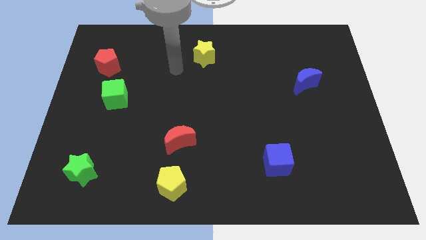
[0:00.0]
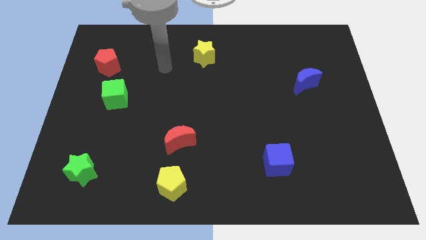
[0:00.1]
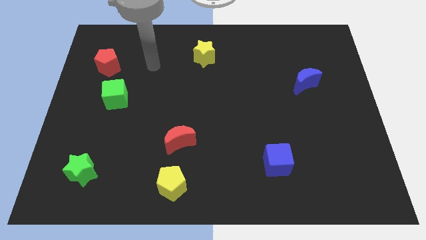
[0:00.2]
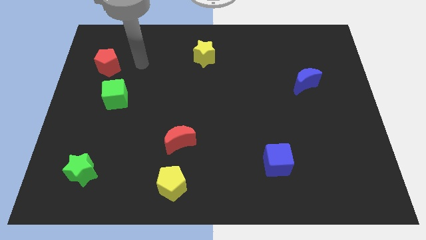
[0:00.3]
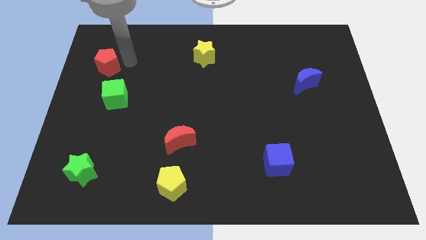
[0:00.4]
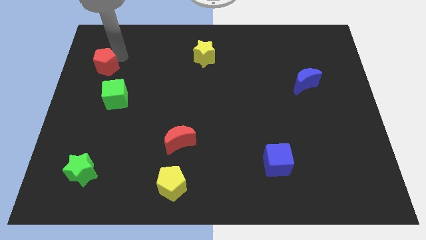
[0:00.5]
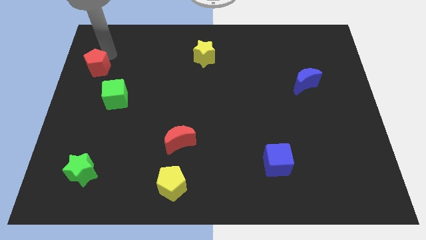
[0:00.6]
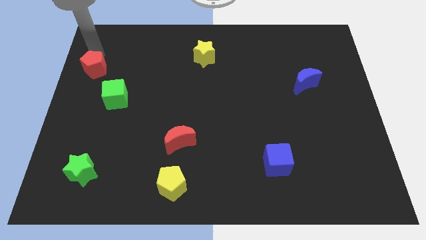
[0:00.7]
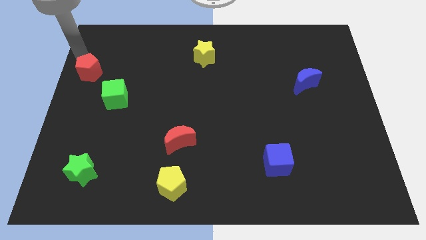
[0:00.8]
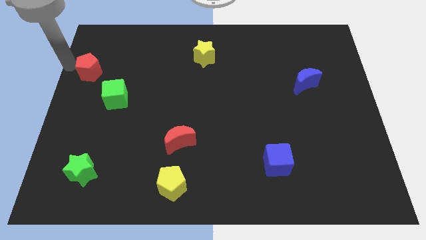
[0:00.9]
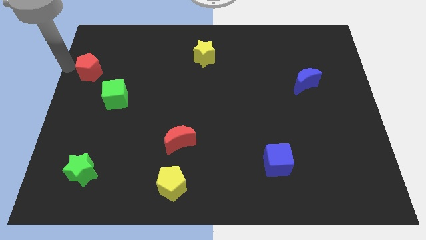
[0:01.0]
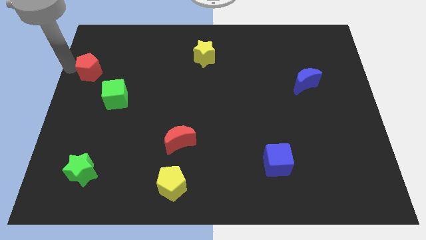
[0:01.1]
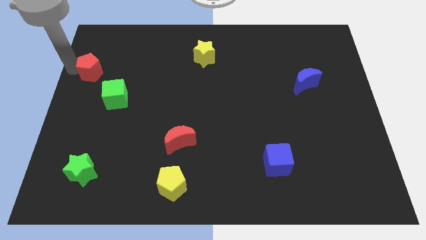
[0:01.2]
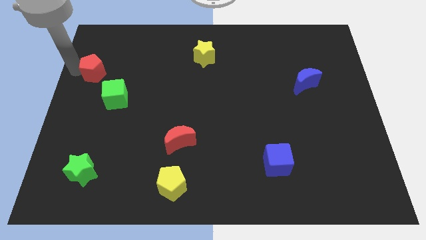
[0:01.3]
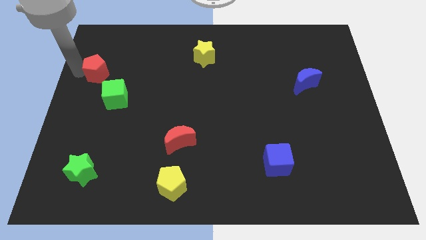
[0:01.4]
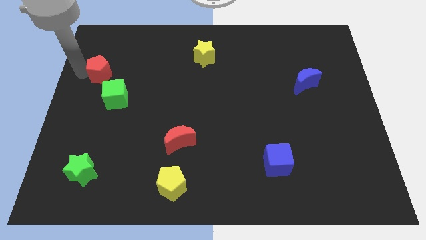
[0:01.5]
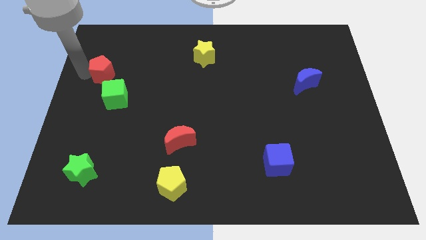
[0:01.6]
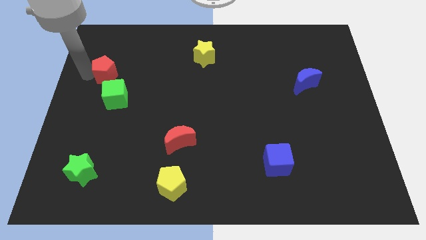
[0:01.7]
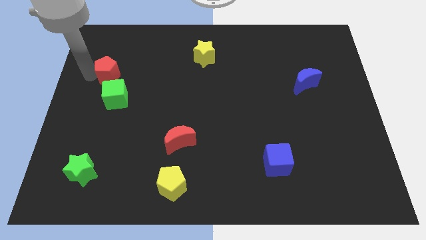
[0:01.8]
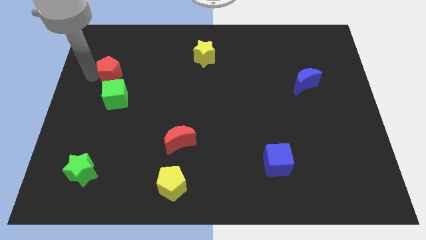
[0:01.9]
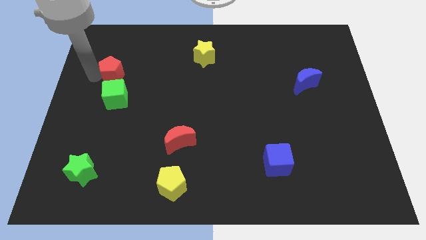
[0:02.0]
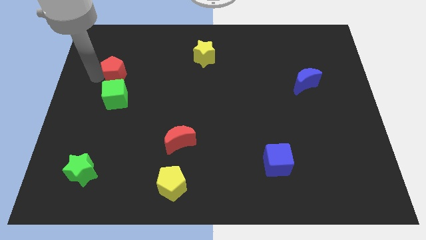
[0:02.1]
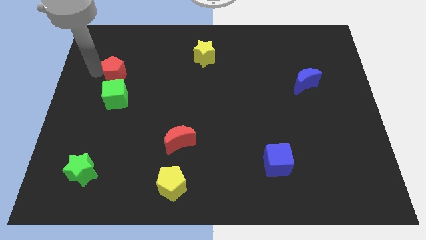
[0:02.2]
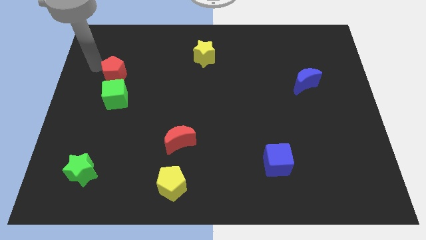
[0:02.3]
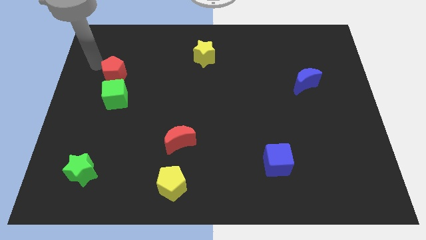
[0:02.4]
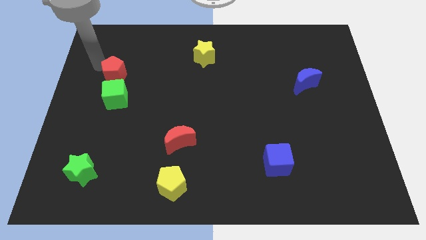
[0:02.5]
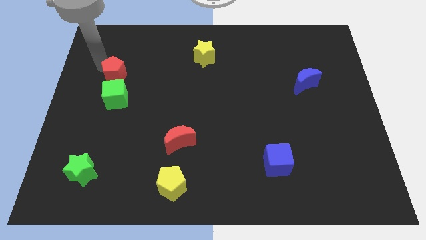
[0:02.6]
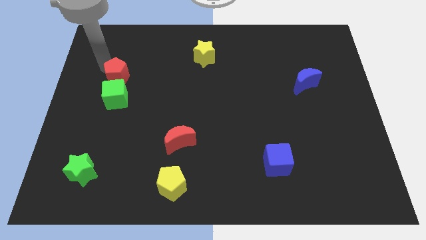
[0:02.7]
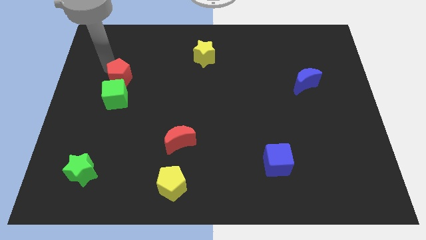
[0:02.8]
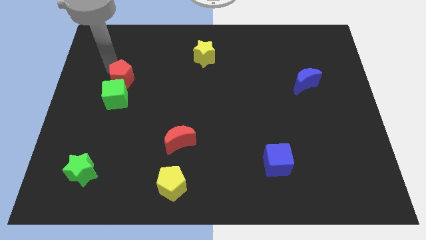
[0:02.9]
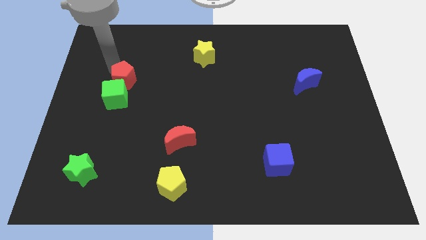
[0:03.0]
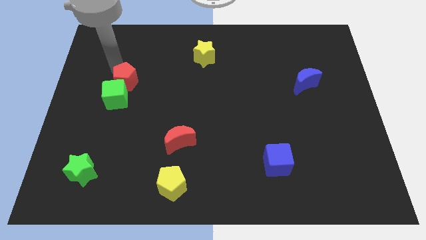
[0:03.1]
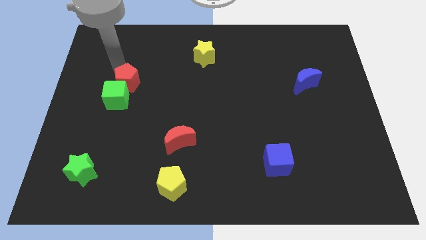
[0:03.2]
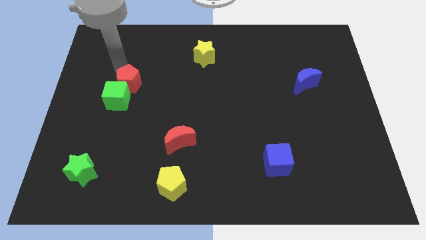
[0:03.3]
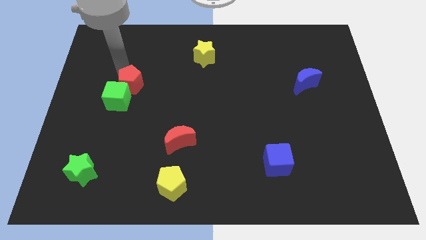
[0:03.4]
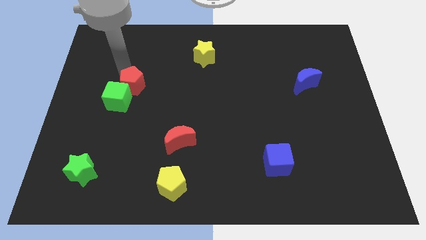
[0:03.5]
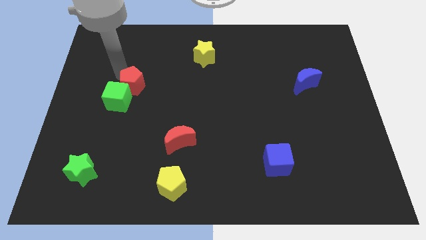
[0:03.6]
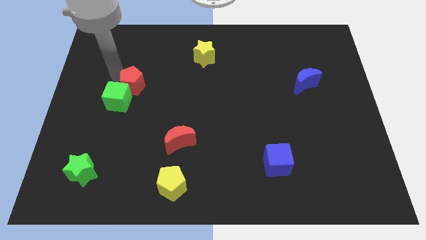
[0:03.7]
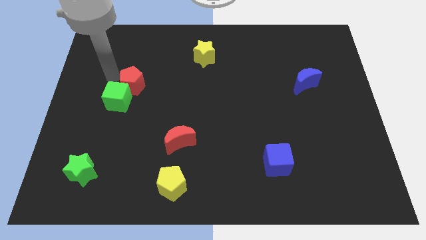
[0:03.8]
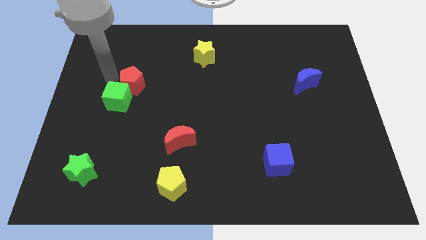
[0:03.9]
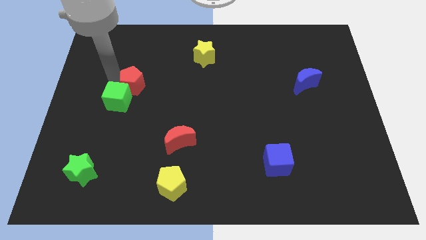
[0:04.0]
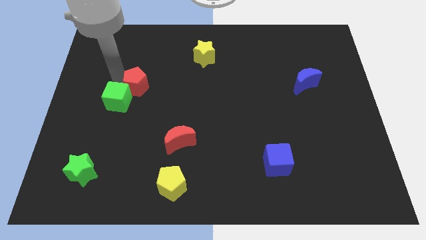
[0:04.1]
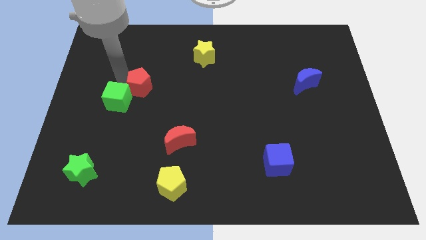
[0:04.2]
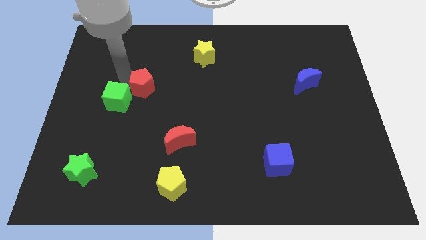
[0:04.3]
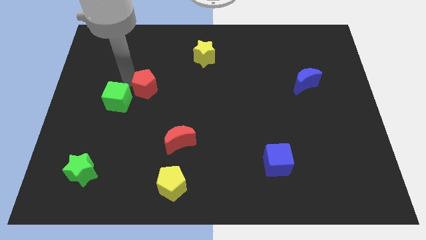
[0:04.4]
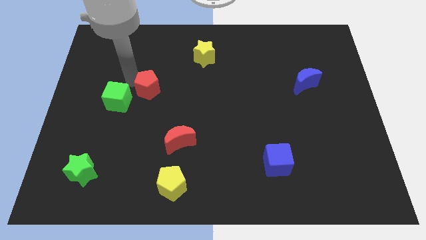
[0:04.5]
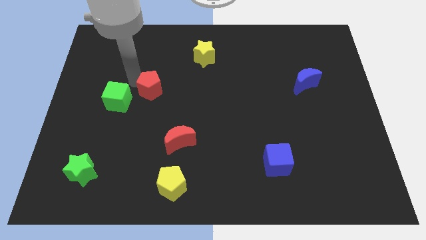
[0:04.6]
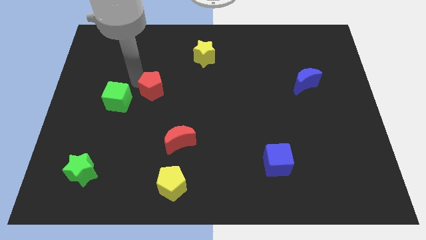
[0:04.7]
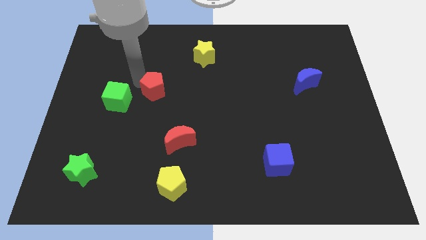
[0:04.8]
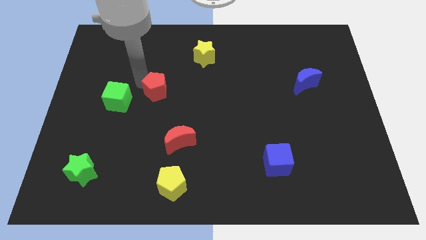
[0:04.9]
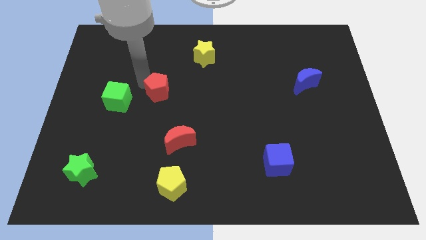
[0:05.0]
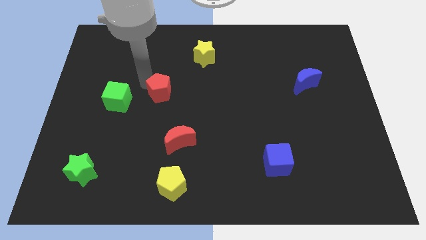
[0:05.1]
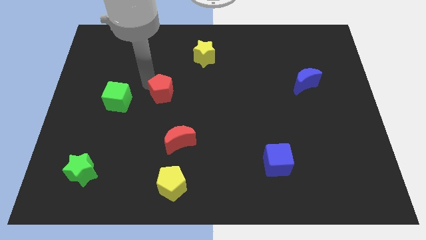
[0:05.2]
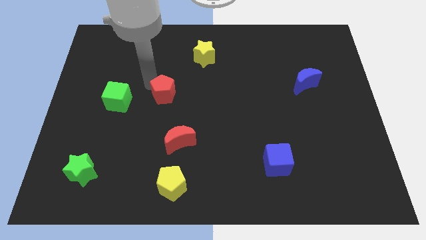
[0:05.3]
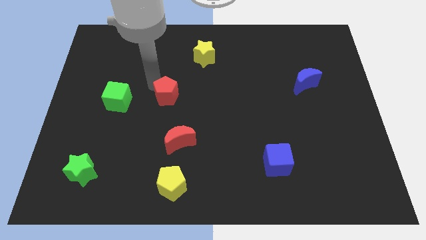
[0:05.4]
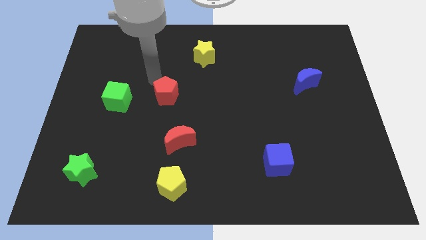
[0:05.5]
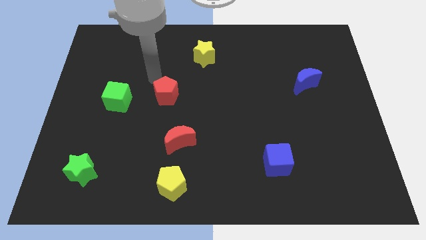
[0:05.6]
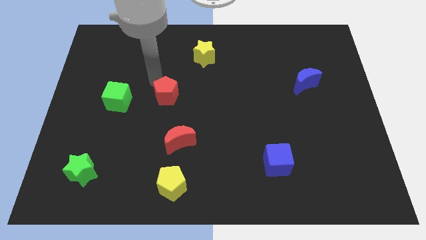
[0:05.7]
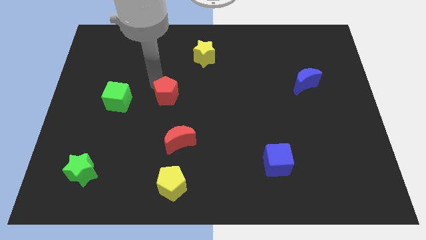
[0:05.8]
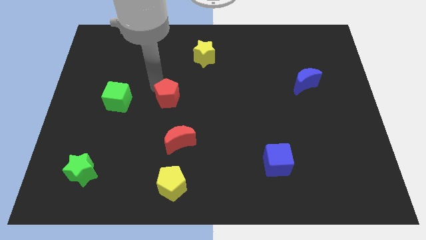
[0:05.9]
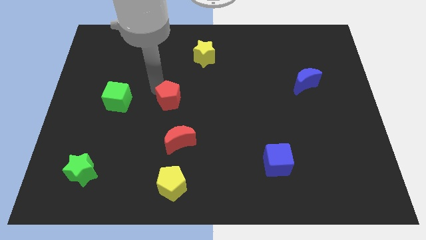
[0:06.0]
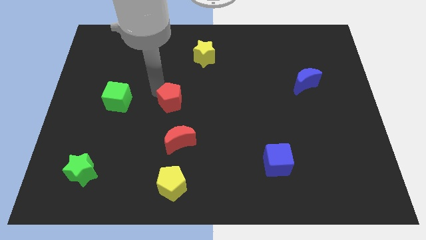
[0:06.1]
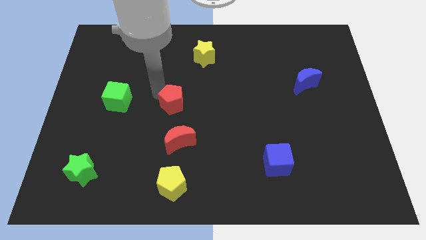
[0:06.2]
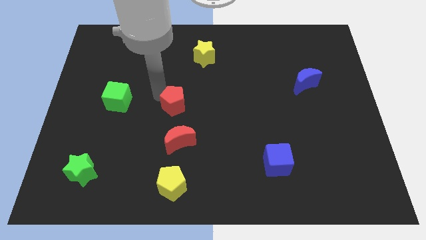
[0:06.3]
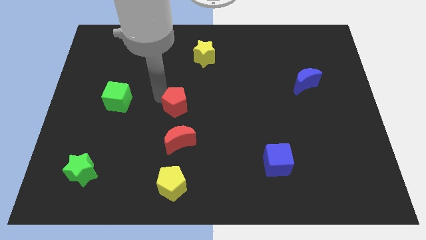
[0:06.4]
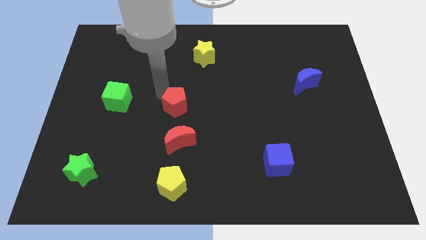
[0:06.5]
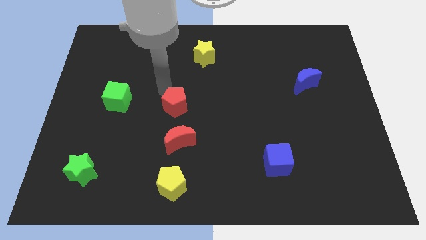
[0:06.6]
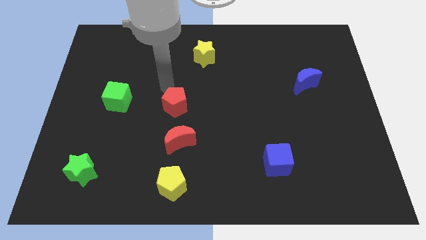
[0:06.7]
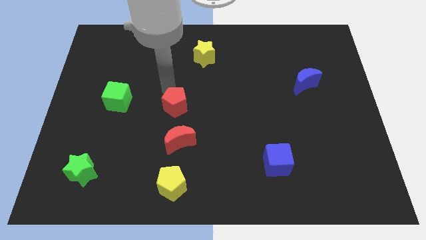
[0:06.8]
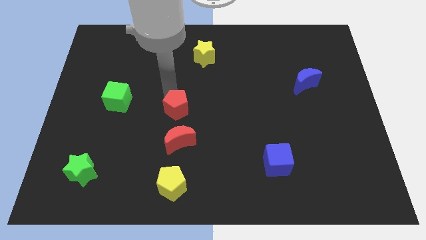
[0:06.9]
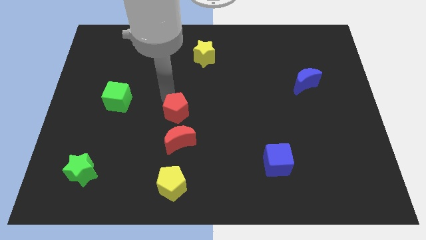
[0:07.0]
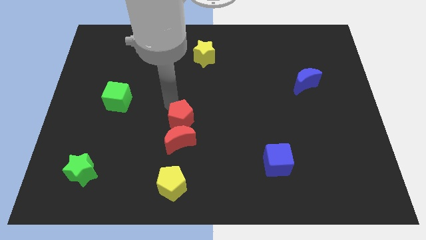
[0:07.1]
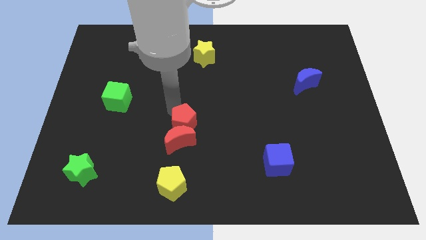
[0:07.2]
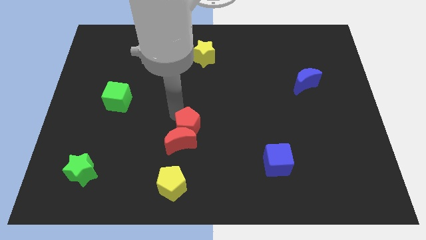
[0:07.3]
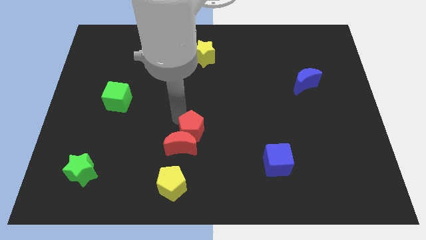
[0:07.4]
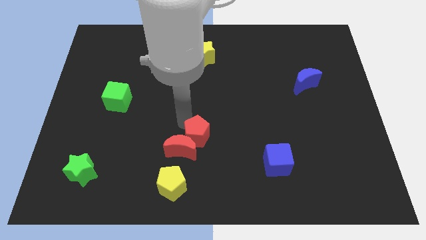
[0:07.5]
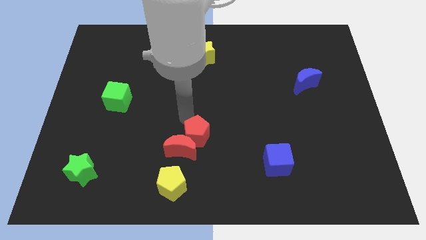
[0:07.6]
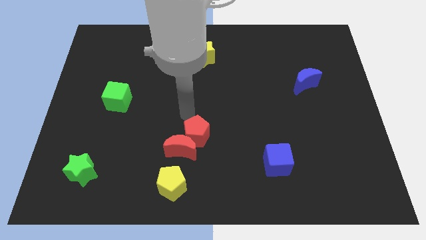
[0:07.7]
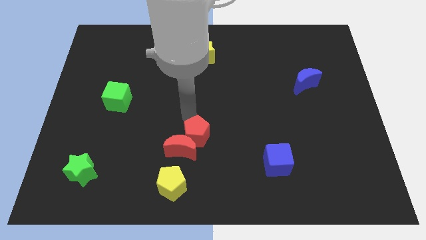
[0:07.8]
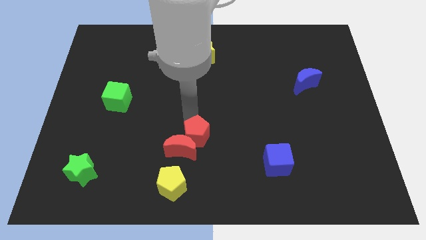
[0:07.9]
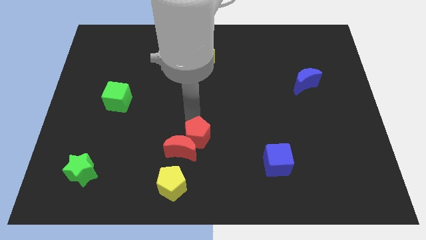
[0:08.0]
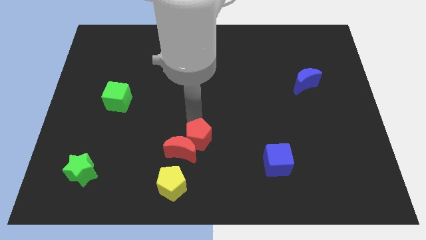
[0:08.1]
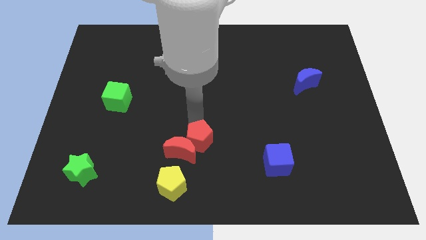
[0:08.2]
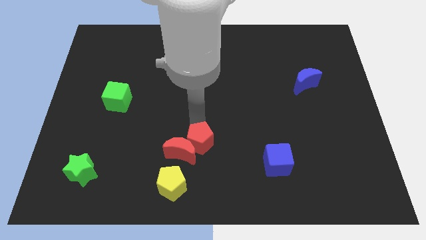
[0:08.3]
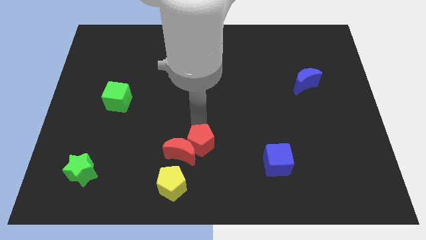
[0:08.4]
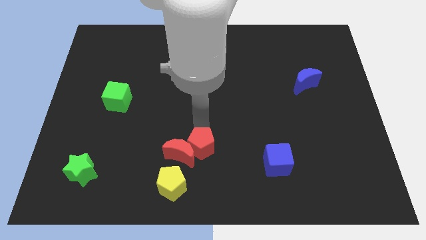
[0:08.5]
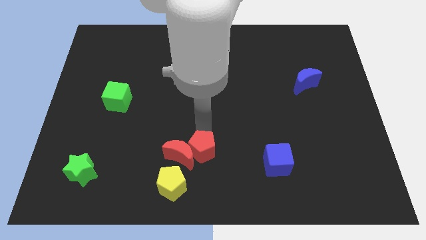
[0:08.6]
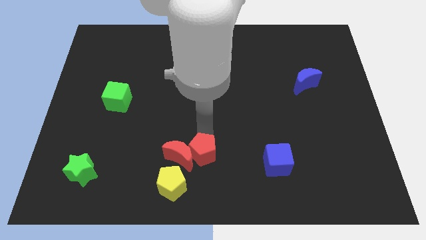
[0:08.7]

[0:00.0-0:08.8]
push the red pentagon to the bottom side
